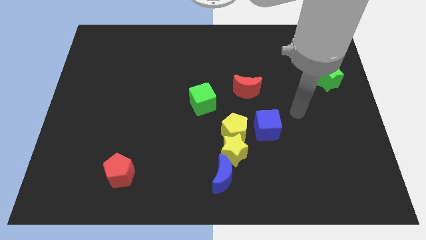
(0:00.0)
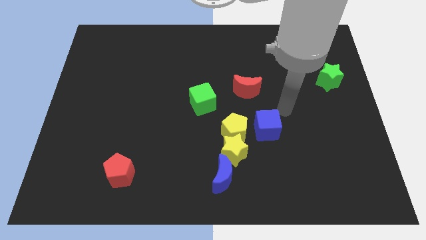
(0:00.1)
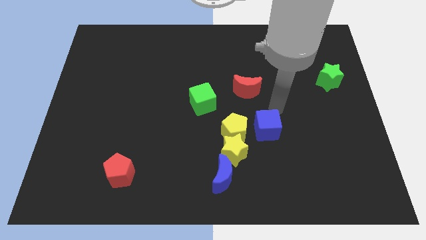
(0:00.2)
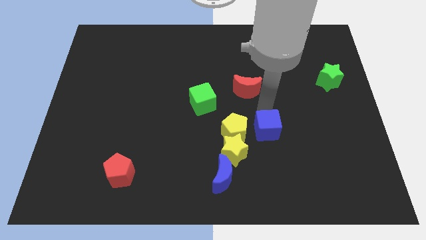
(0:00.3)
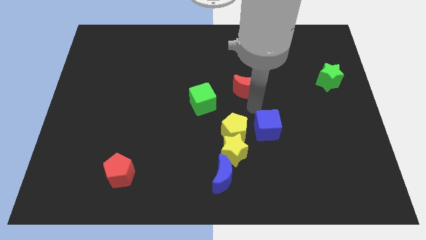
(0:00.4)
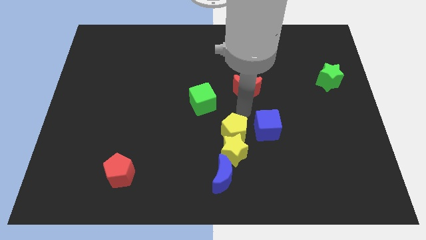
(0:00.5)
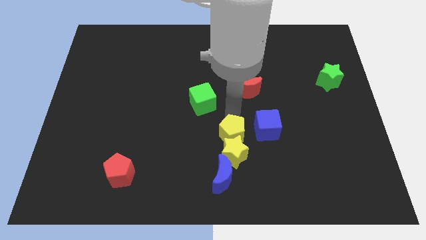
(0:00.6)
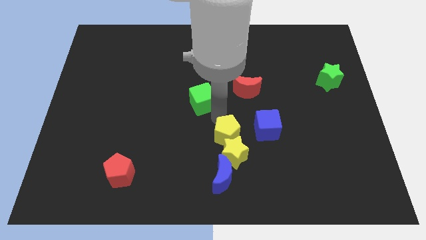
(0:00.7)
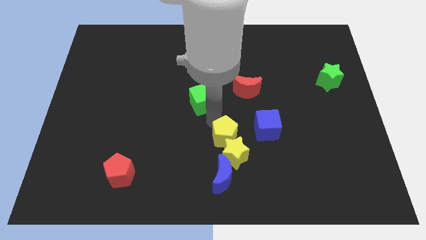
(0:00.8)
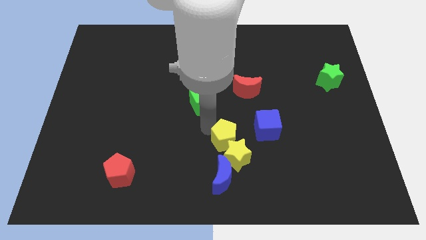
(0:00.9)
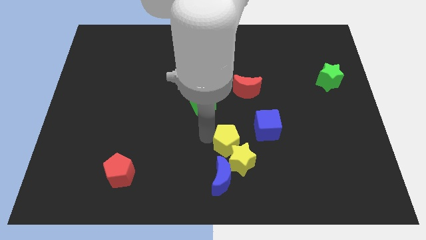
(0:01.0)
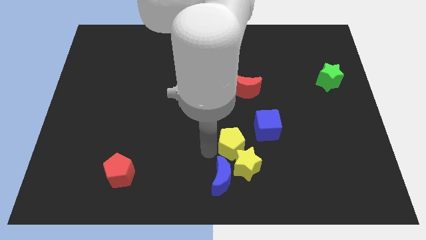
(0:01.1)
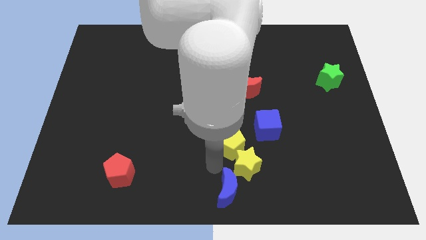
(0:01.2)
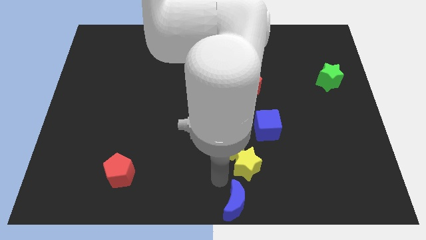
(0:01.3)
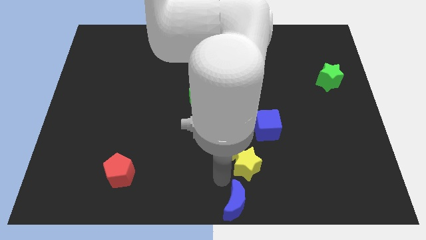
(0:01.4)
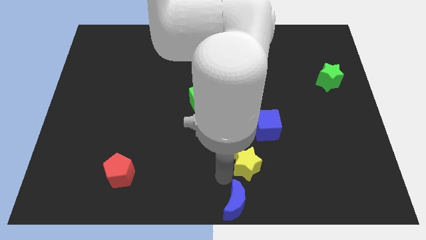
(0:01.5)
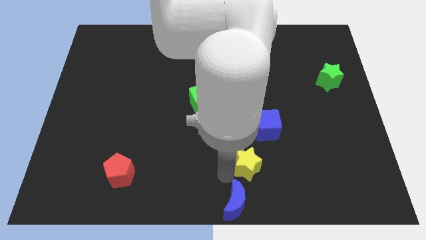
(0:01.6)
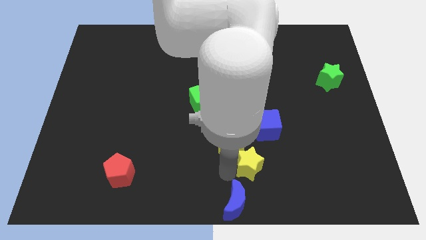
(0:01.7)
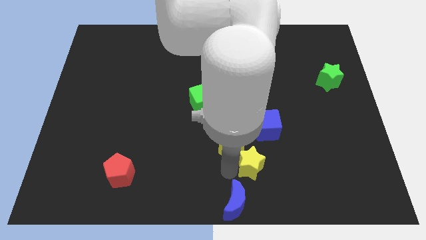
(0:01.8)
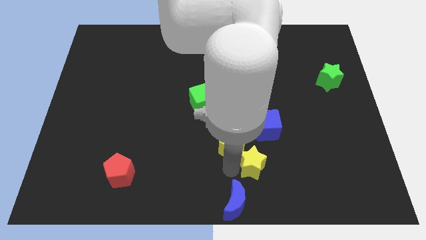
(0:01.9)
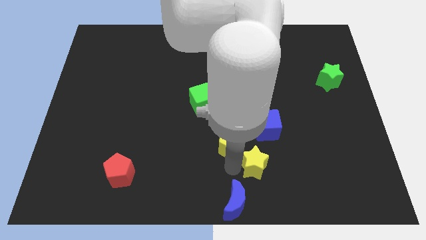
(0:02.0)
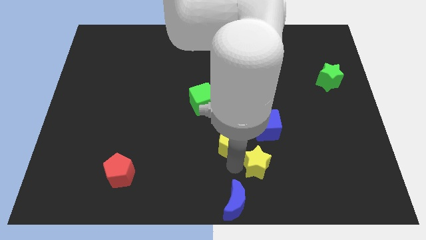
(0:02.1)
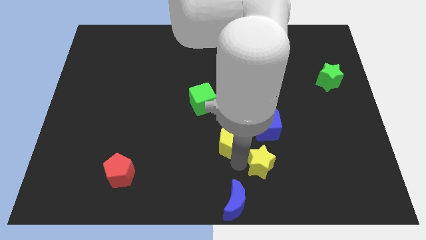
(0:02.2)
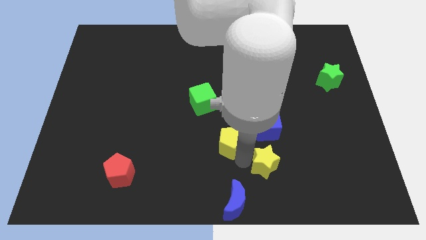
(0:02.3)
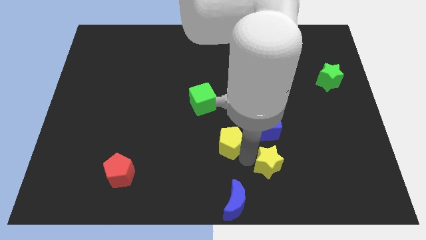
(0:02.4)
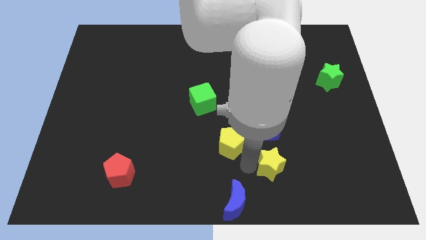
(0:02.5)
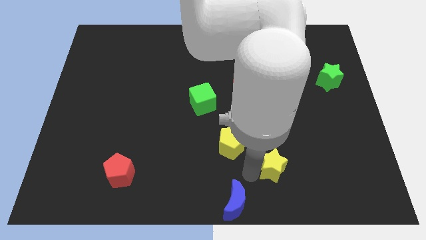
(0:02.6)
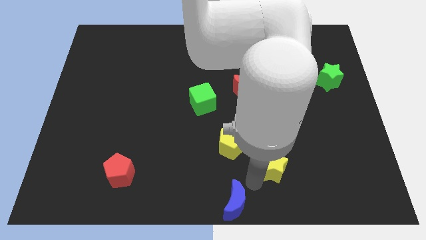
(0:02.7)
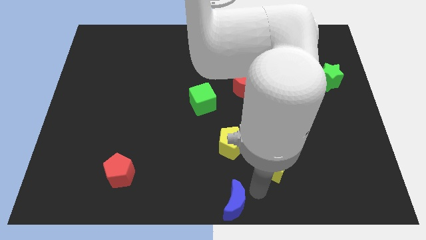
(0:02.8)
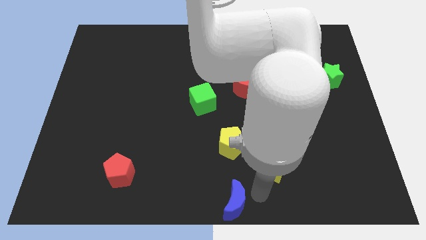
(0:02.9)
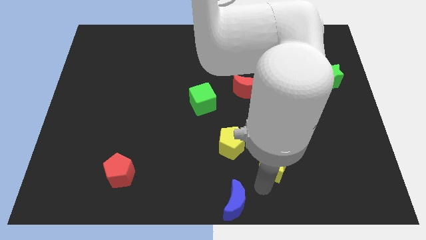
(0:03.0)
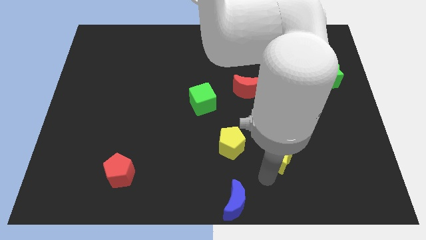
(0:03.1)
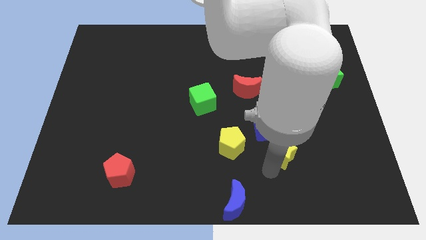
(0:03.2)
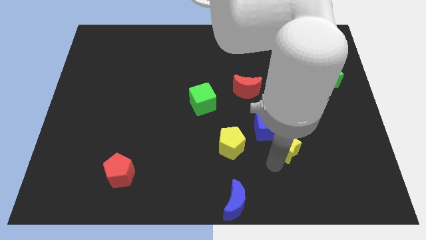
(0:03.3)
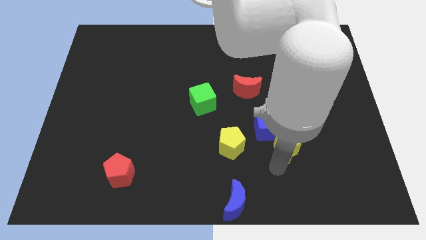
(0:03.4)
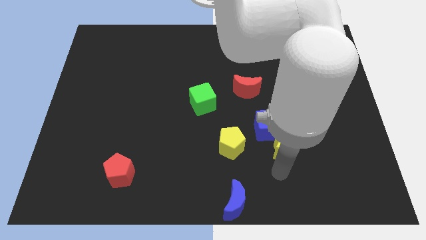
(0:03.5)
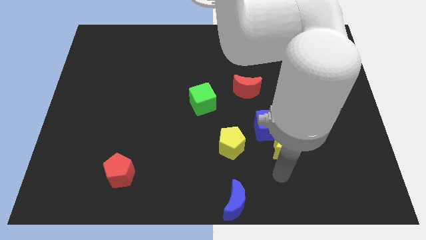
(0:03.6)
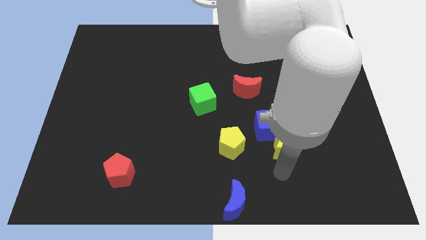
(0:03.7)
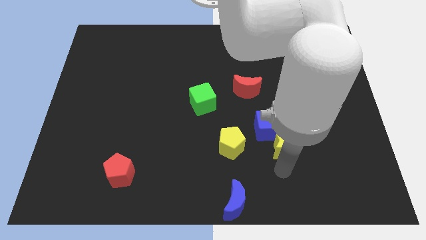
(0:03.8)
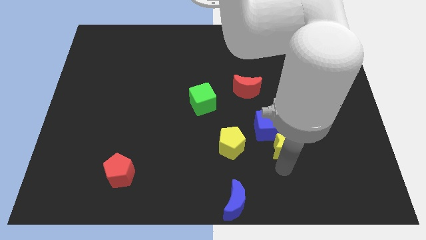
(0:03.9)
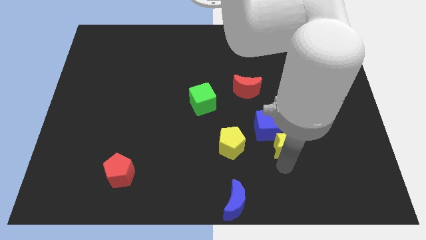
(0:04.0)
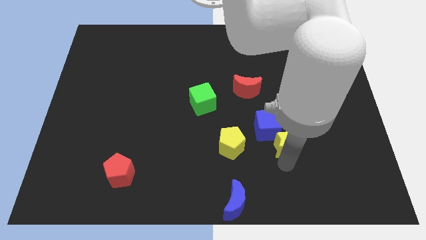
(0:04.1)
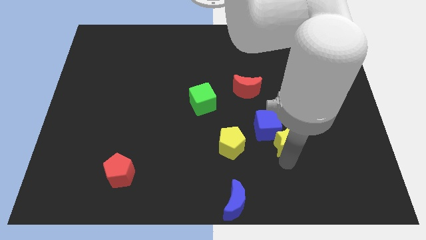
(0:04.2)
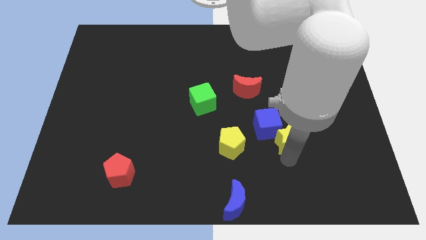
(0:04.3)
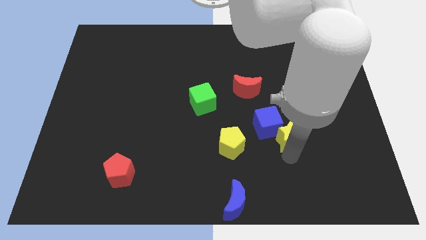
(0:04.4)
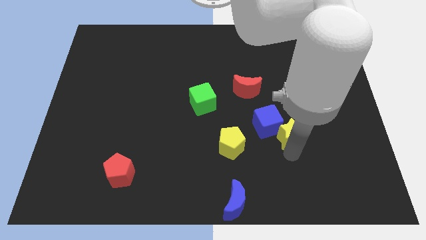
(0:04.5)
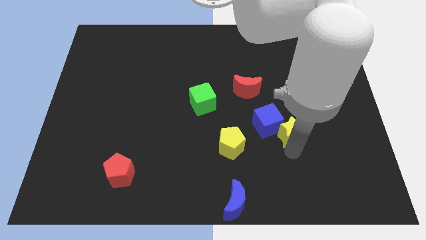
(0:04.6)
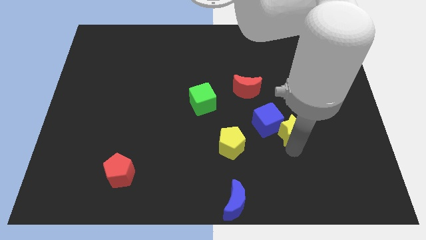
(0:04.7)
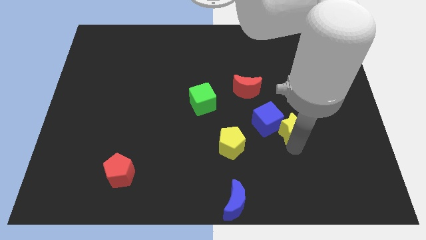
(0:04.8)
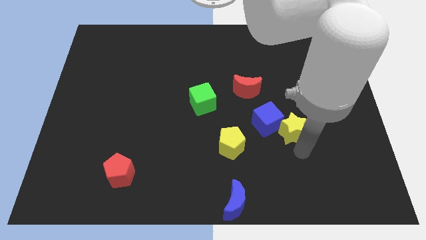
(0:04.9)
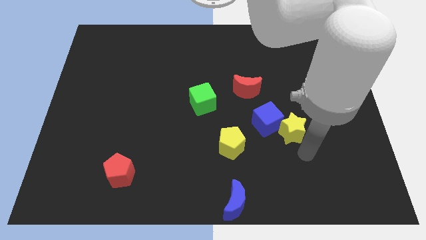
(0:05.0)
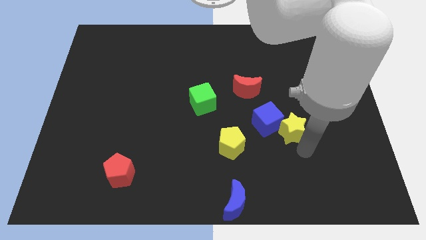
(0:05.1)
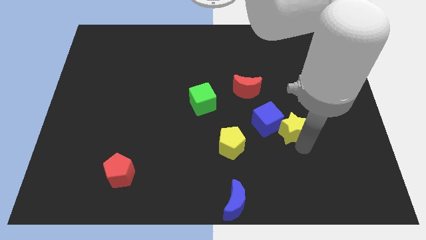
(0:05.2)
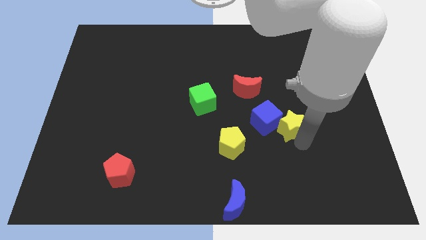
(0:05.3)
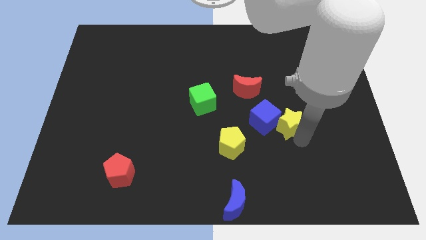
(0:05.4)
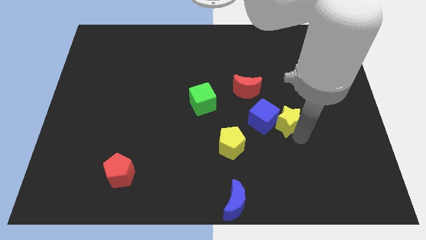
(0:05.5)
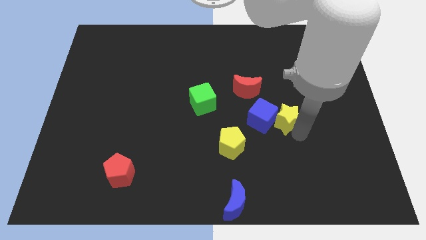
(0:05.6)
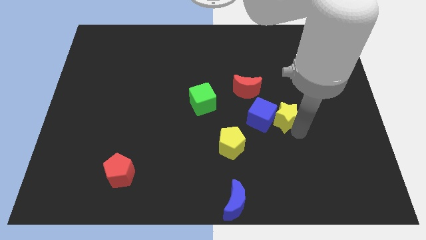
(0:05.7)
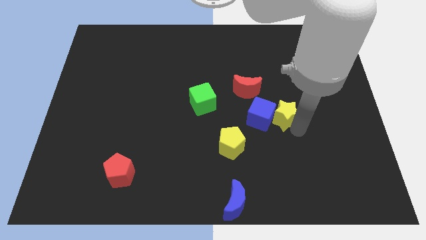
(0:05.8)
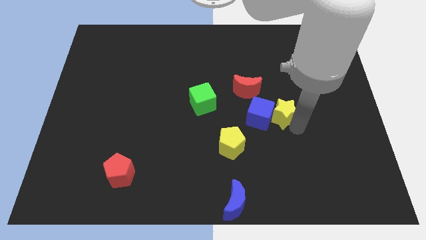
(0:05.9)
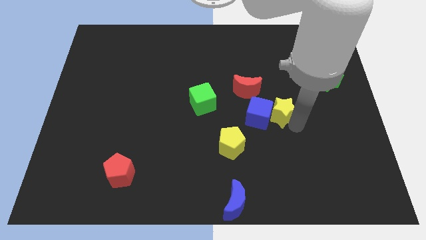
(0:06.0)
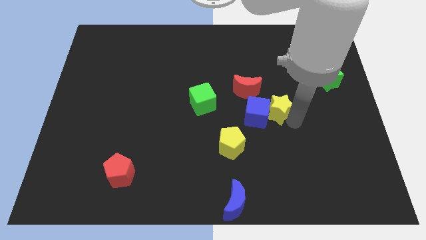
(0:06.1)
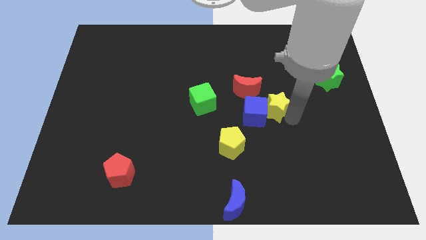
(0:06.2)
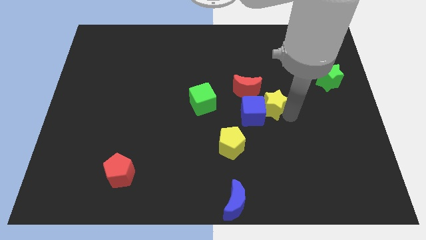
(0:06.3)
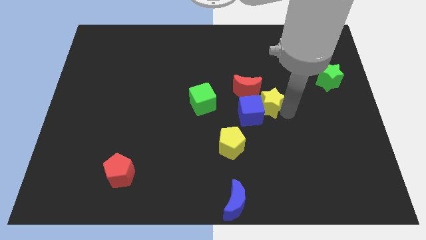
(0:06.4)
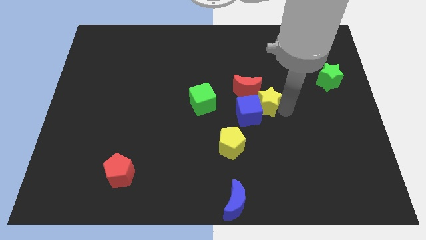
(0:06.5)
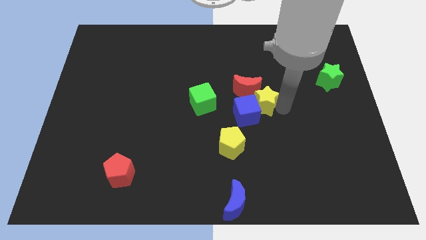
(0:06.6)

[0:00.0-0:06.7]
put the yellow star close to the red moon

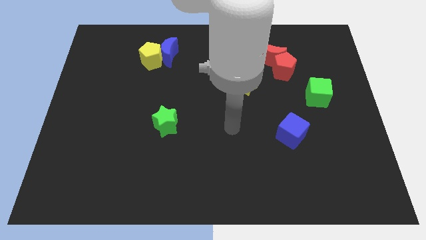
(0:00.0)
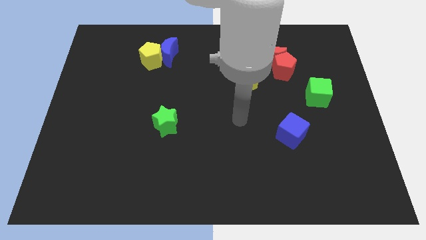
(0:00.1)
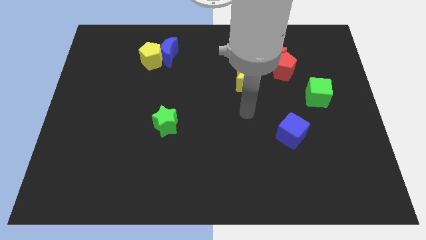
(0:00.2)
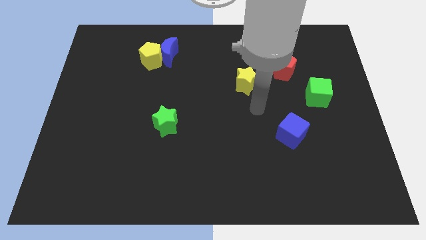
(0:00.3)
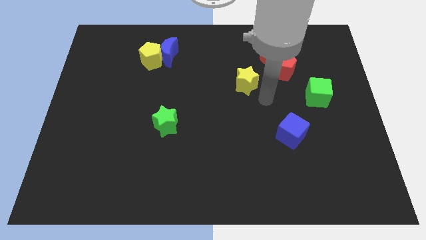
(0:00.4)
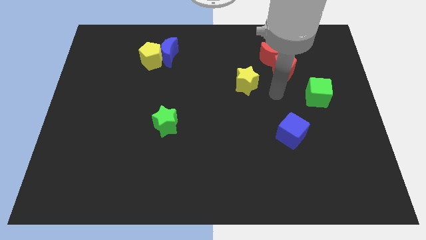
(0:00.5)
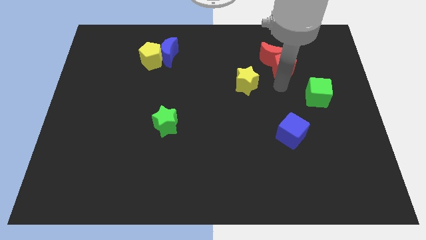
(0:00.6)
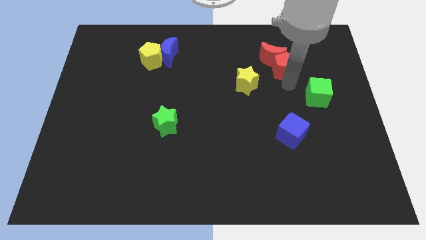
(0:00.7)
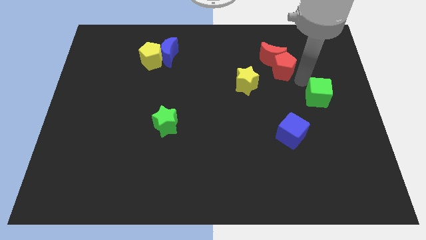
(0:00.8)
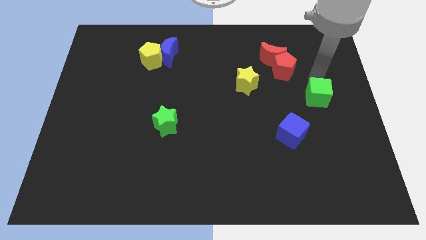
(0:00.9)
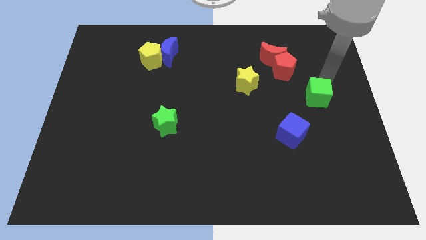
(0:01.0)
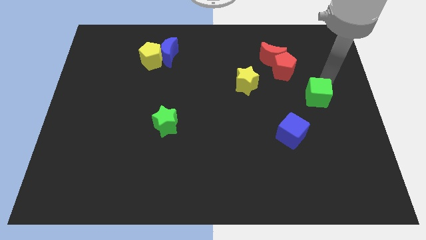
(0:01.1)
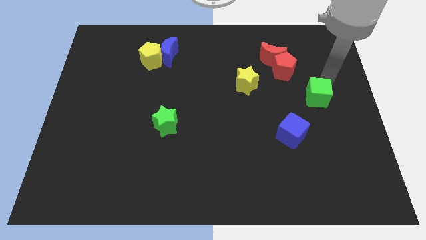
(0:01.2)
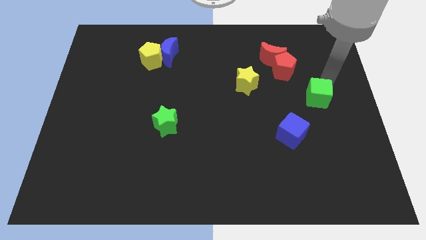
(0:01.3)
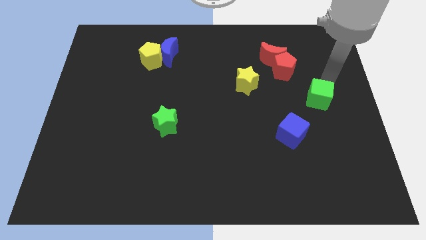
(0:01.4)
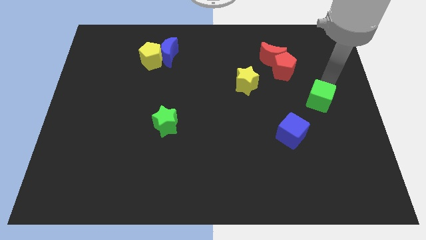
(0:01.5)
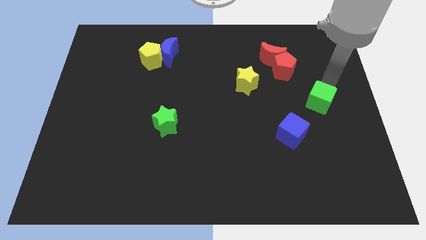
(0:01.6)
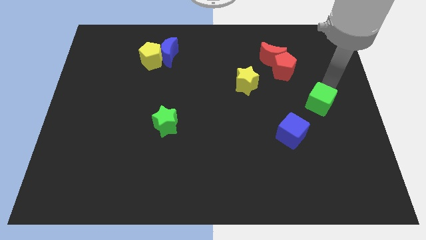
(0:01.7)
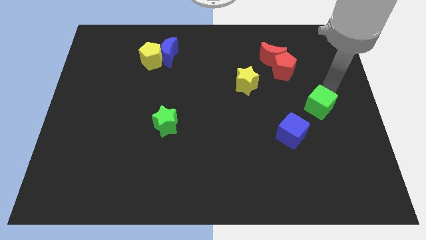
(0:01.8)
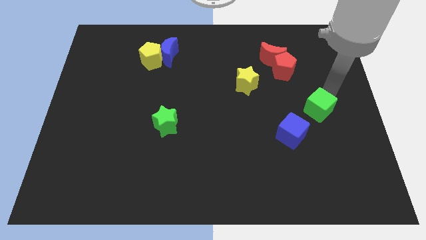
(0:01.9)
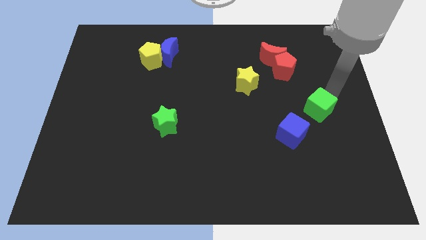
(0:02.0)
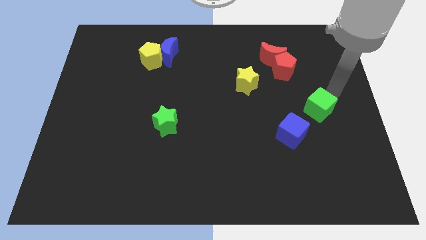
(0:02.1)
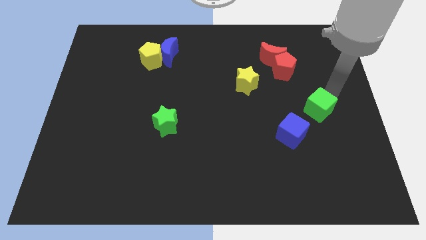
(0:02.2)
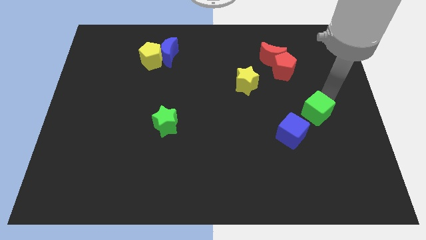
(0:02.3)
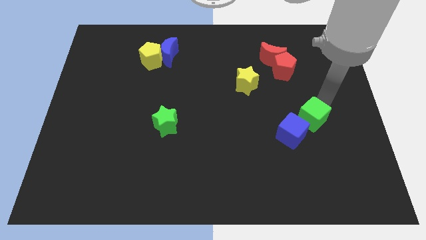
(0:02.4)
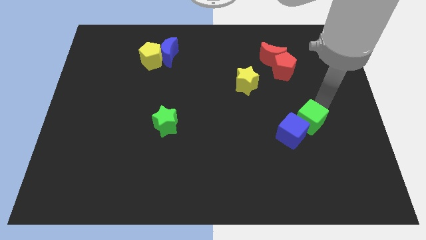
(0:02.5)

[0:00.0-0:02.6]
push the green cube next to the blue cube
